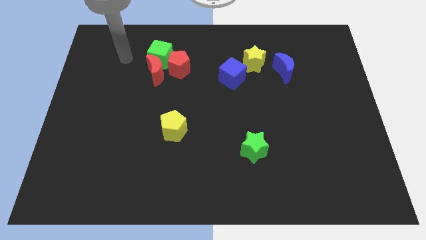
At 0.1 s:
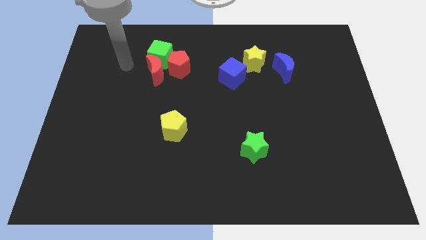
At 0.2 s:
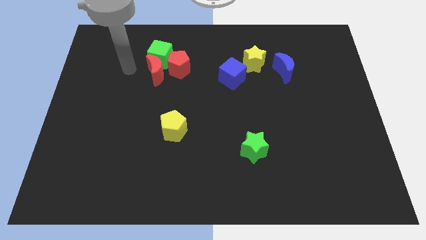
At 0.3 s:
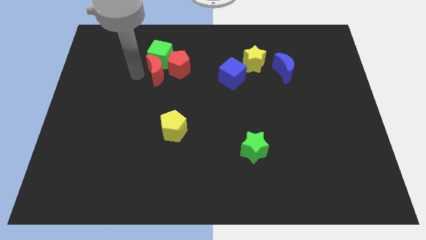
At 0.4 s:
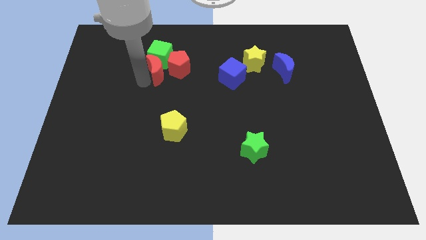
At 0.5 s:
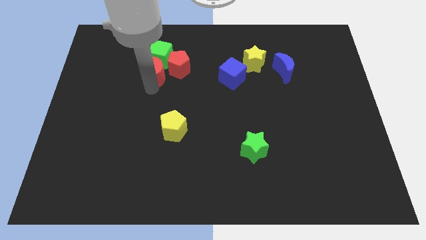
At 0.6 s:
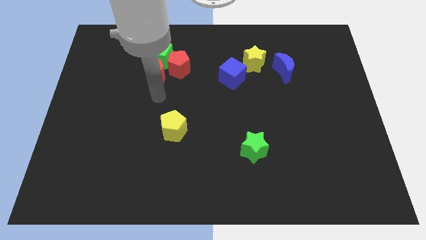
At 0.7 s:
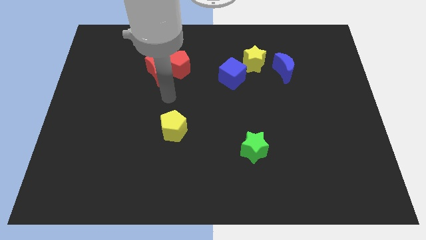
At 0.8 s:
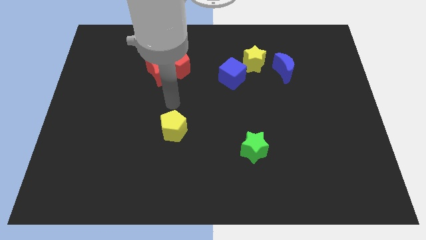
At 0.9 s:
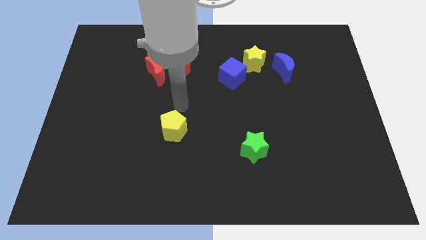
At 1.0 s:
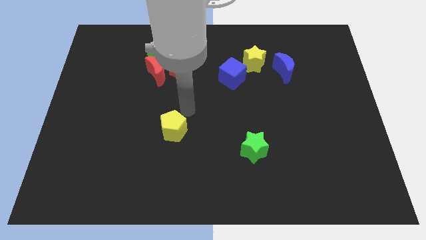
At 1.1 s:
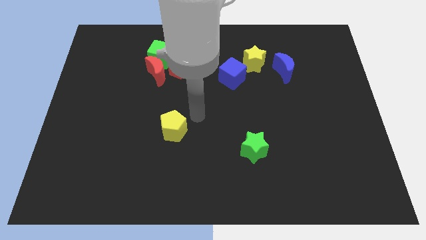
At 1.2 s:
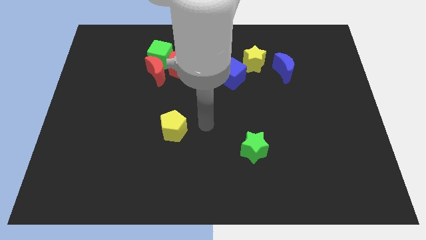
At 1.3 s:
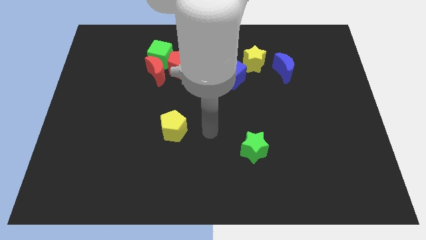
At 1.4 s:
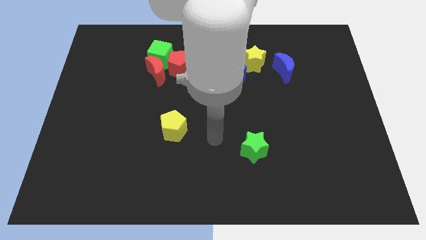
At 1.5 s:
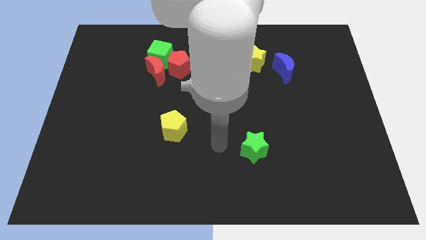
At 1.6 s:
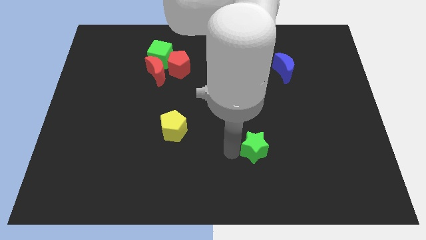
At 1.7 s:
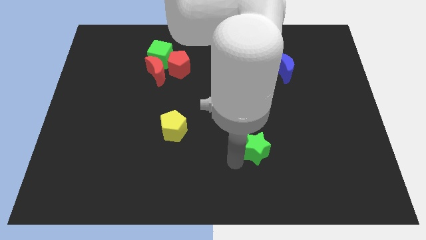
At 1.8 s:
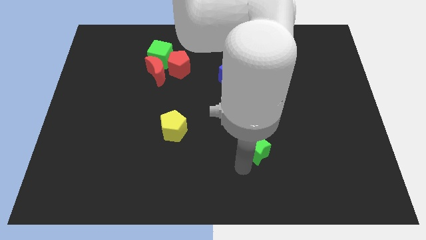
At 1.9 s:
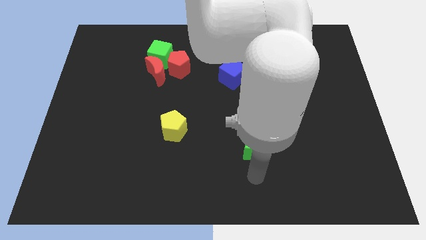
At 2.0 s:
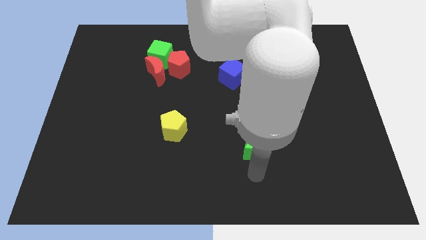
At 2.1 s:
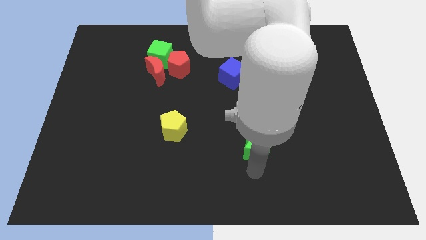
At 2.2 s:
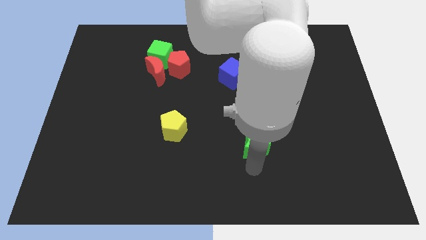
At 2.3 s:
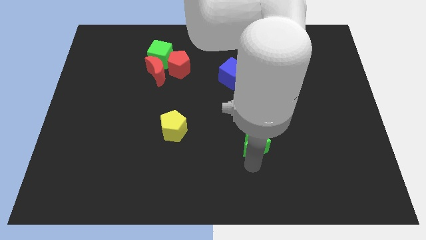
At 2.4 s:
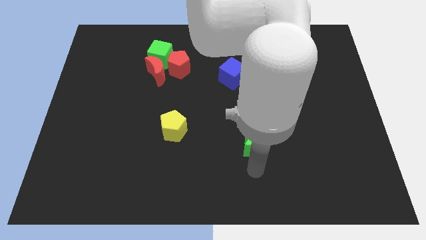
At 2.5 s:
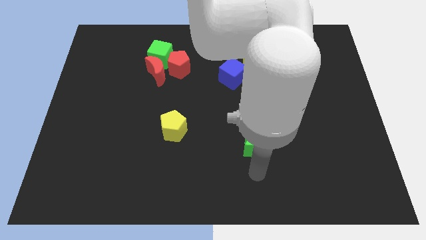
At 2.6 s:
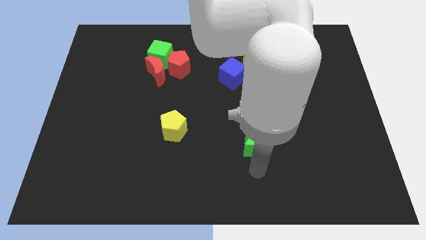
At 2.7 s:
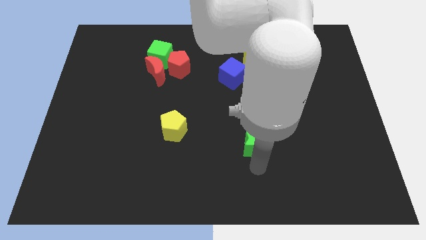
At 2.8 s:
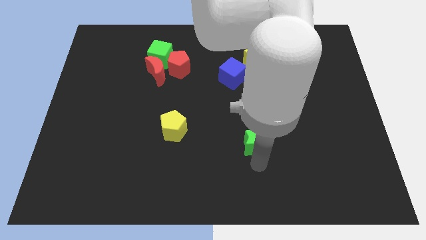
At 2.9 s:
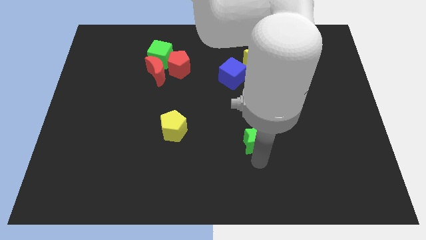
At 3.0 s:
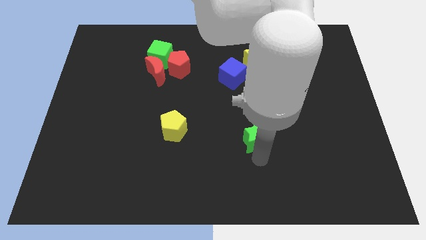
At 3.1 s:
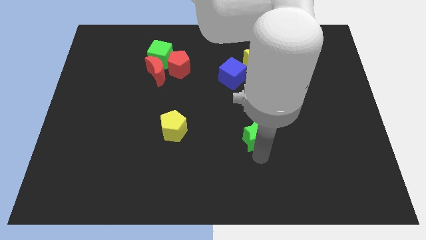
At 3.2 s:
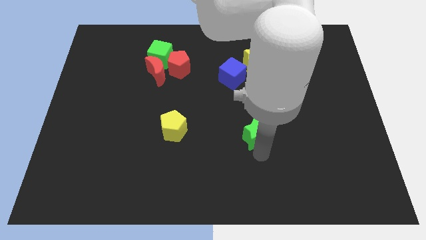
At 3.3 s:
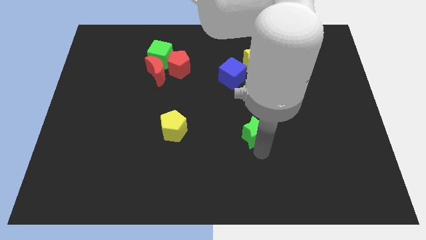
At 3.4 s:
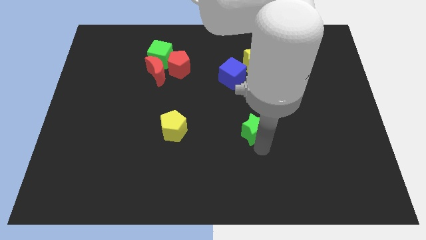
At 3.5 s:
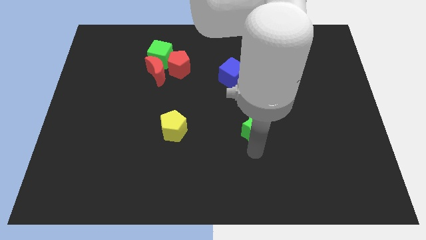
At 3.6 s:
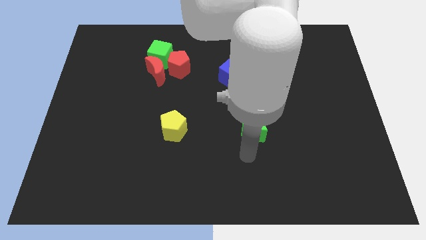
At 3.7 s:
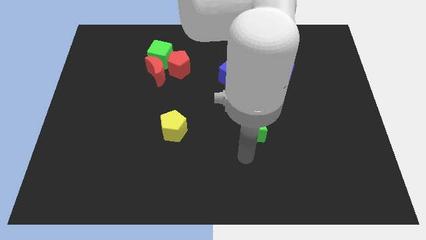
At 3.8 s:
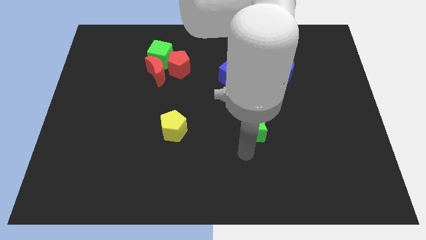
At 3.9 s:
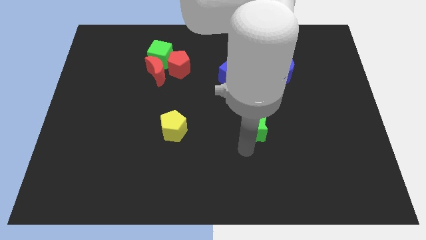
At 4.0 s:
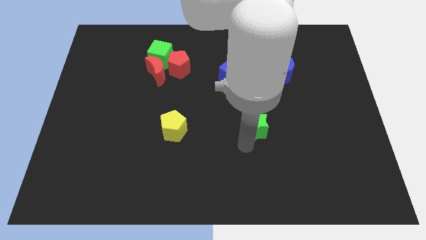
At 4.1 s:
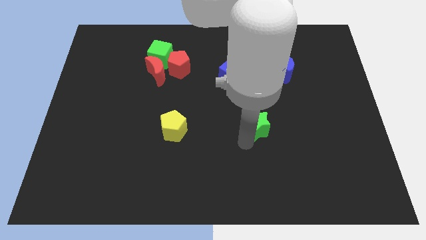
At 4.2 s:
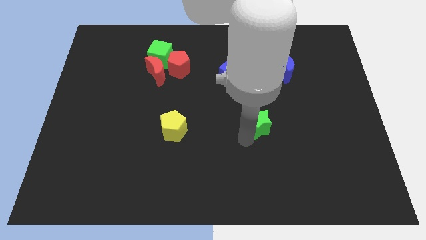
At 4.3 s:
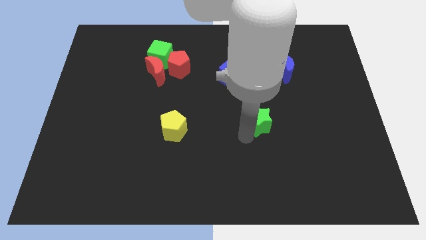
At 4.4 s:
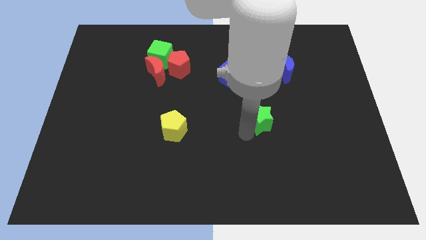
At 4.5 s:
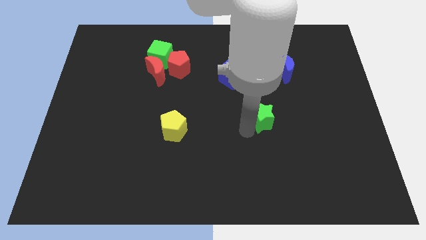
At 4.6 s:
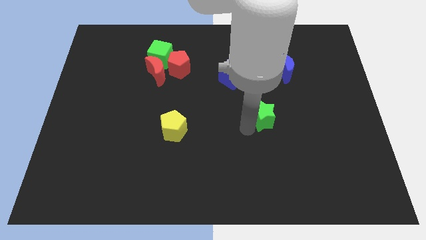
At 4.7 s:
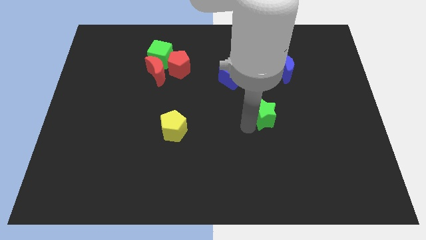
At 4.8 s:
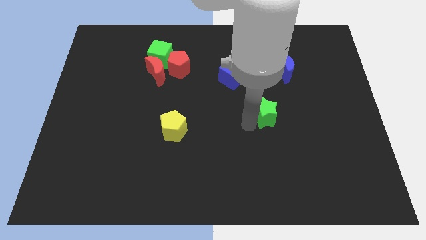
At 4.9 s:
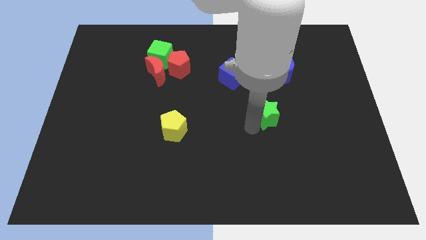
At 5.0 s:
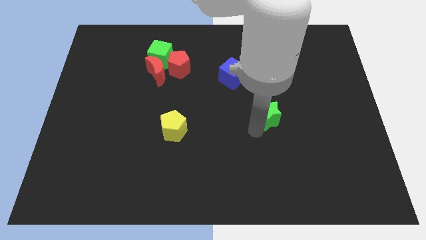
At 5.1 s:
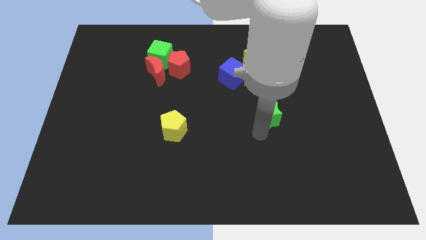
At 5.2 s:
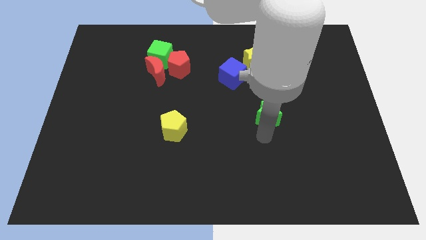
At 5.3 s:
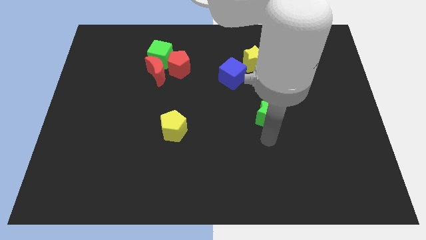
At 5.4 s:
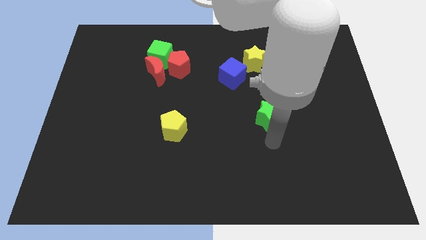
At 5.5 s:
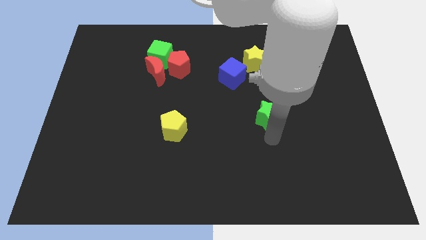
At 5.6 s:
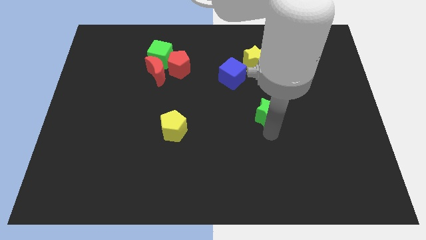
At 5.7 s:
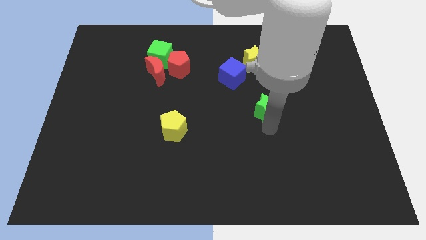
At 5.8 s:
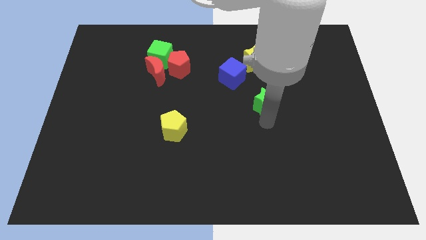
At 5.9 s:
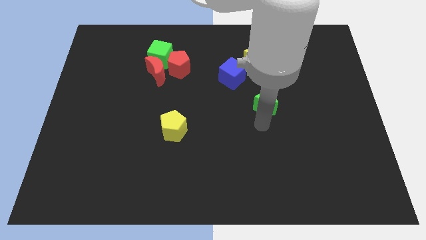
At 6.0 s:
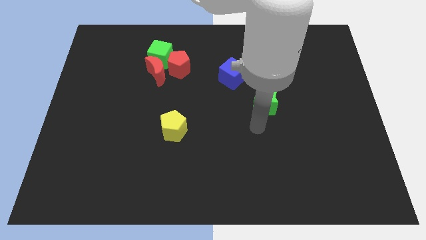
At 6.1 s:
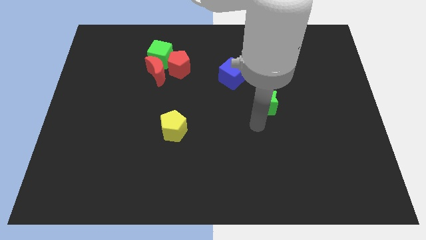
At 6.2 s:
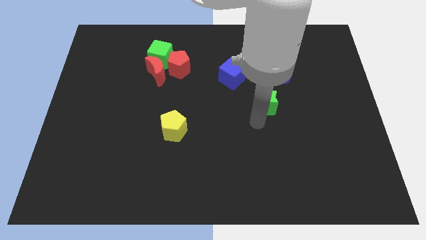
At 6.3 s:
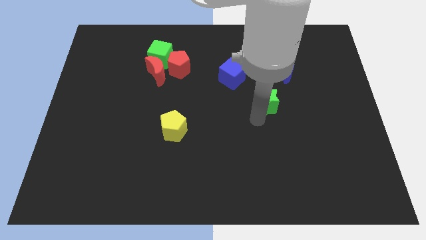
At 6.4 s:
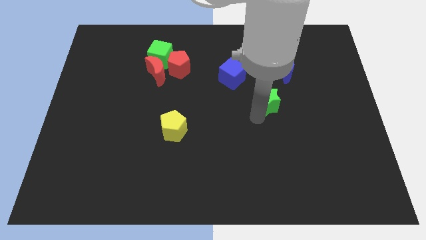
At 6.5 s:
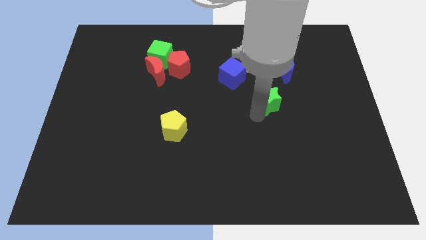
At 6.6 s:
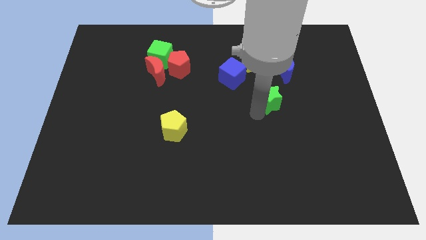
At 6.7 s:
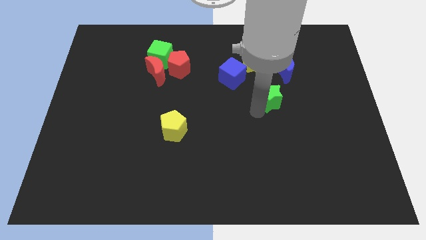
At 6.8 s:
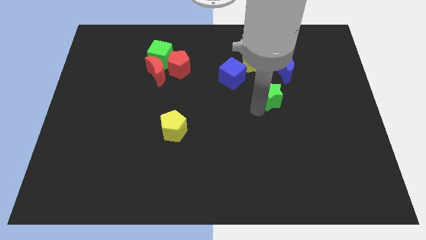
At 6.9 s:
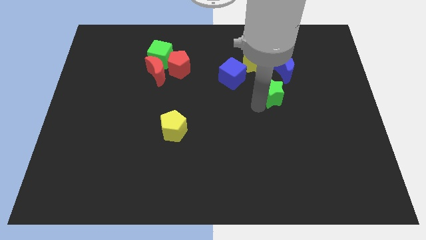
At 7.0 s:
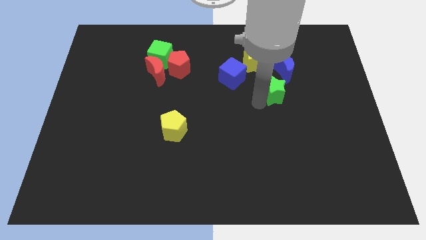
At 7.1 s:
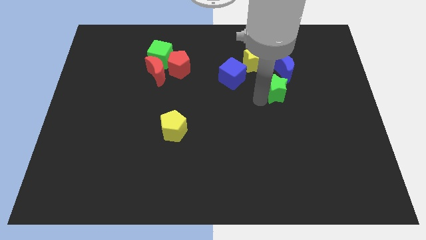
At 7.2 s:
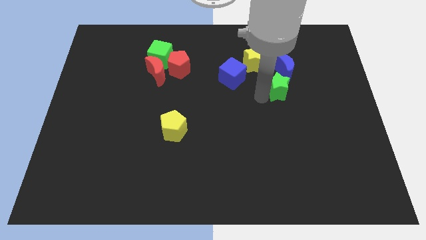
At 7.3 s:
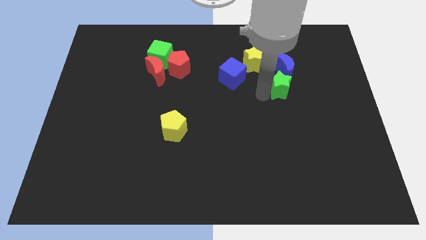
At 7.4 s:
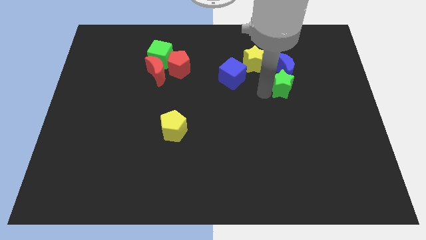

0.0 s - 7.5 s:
move the green star to the blue moon
